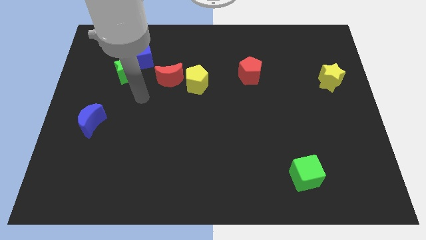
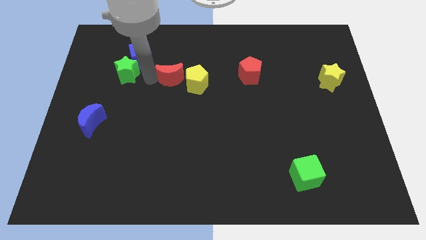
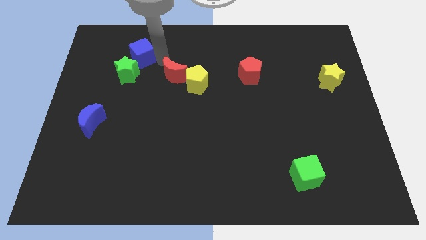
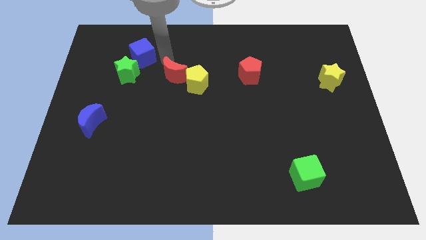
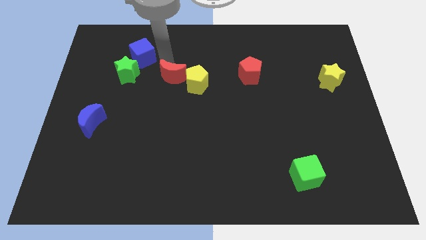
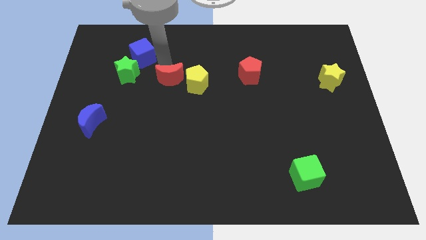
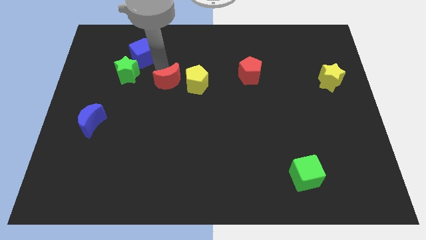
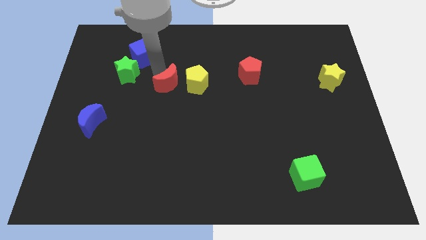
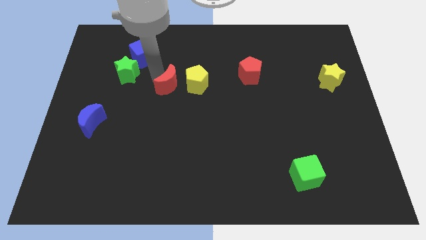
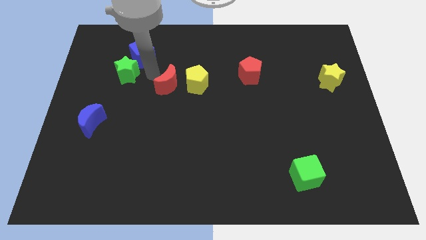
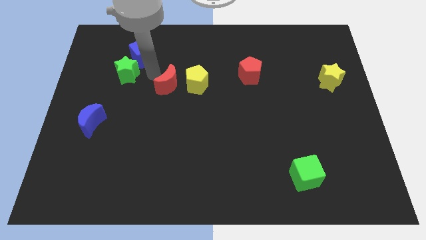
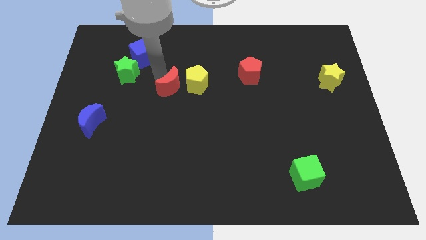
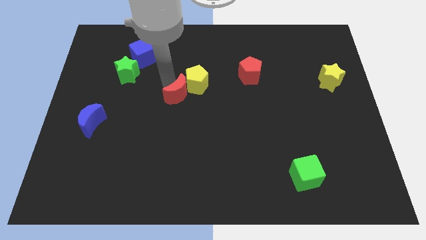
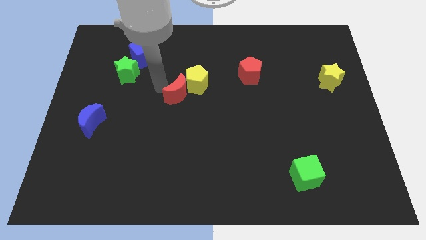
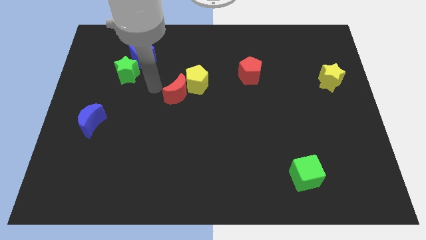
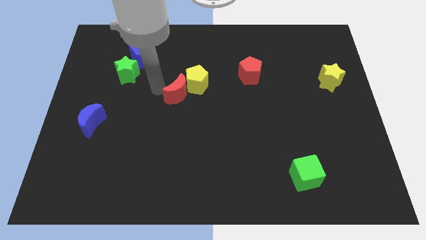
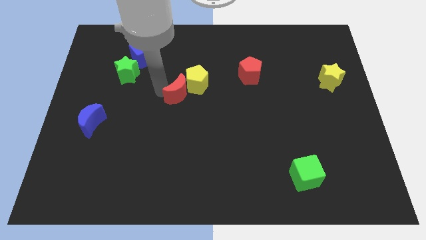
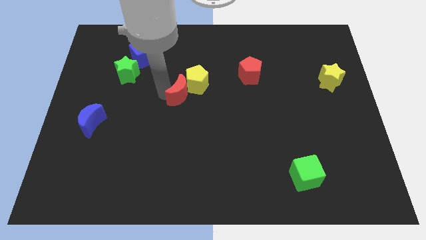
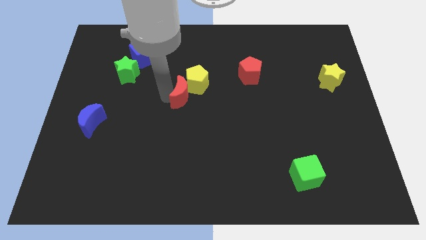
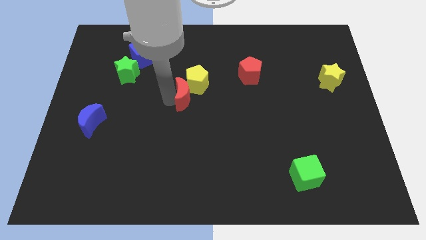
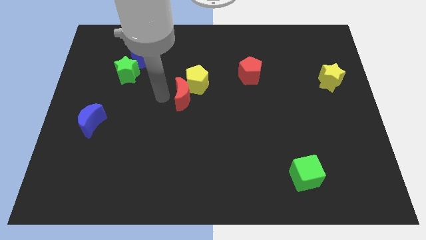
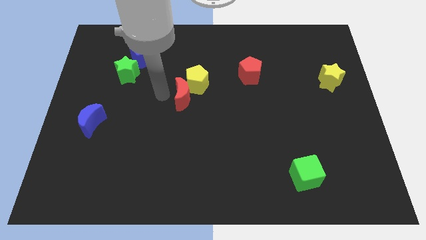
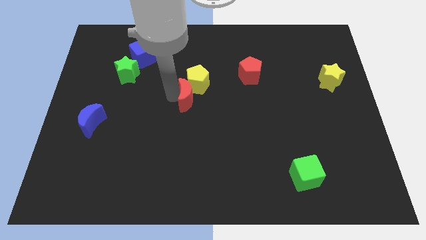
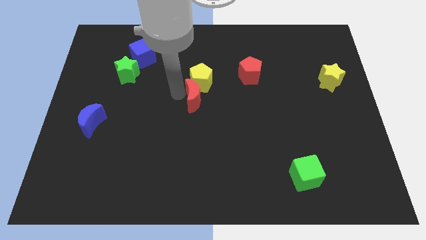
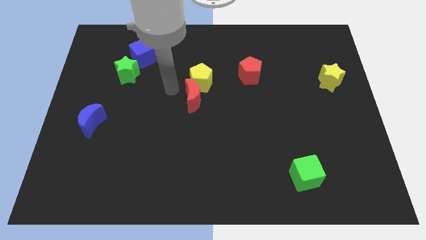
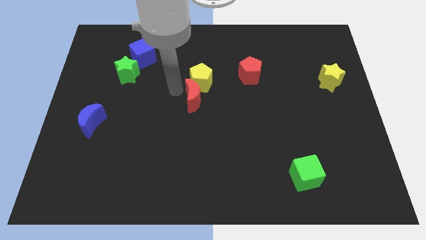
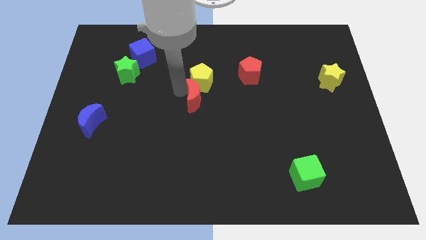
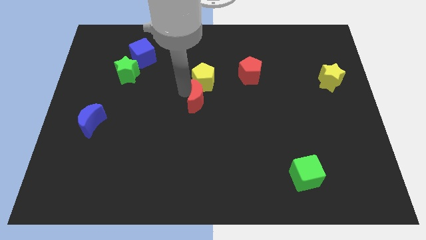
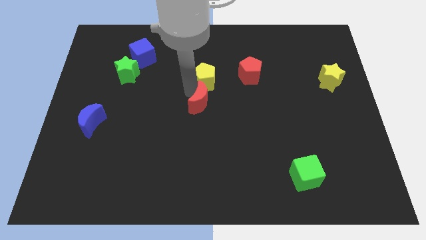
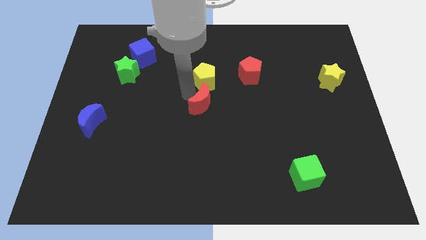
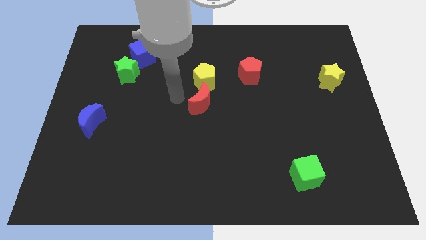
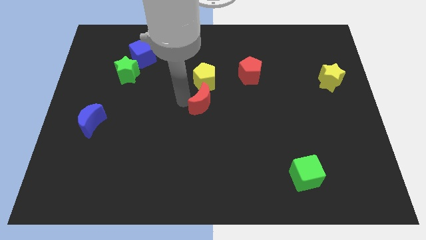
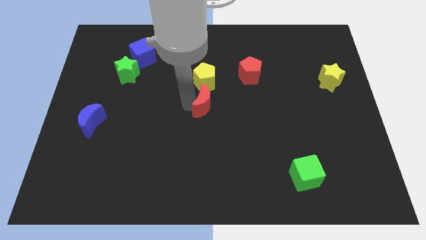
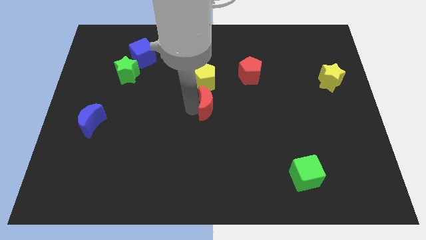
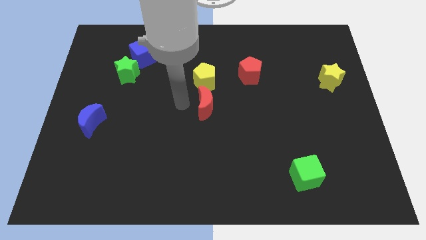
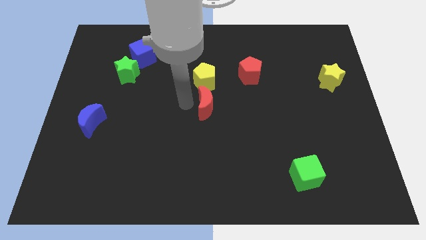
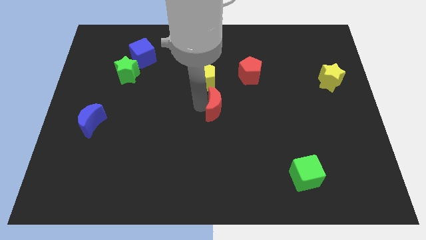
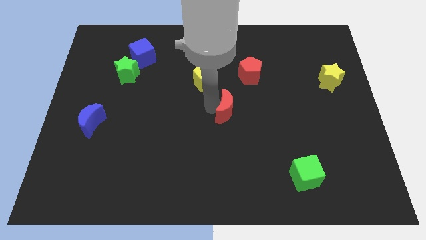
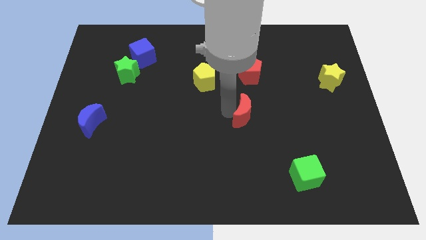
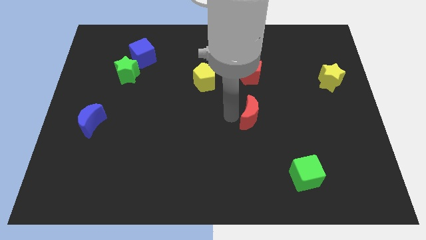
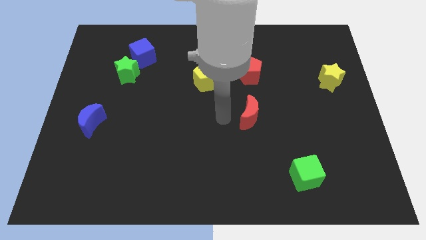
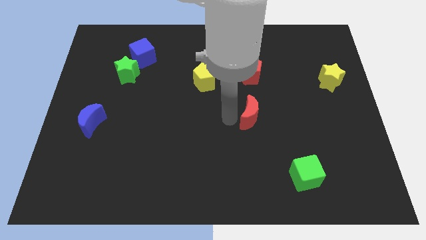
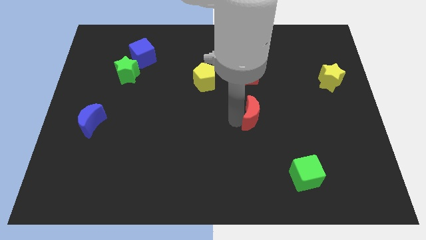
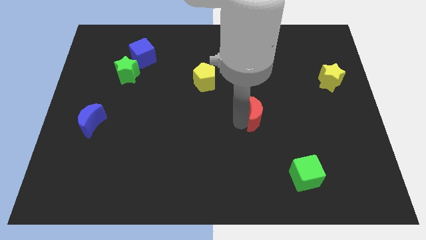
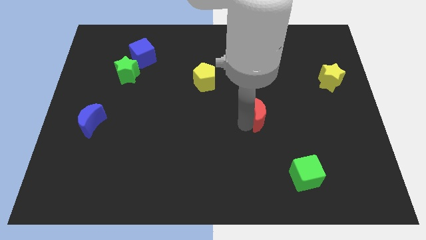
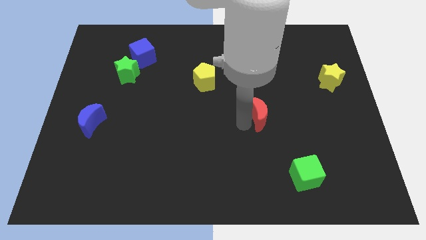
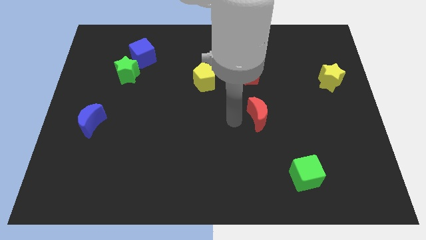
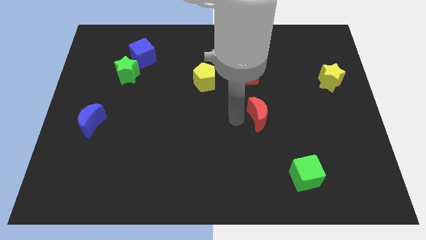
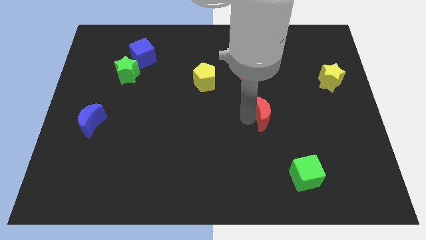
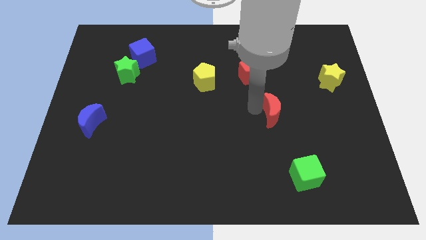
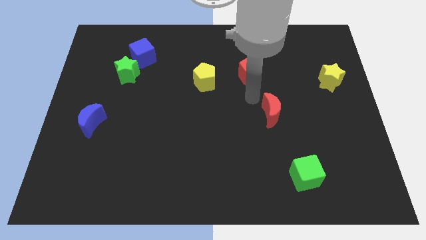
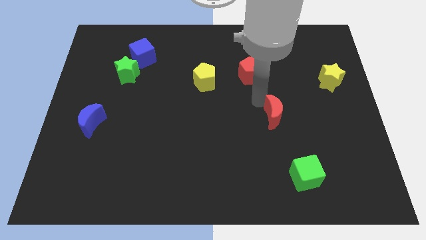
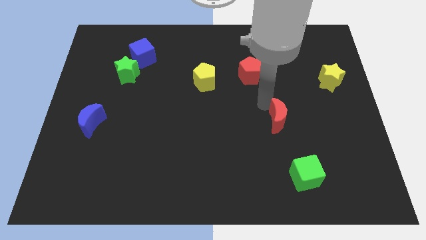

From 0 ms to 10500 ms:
move the red moon above the green cube

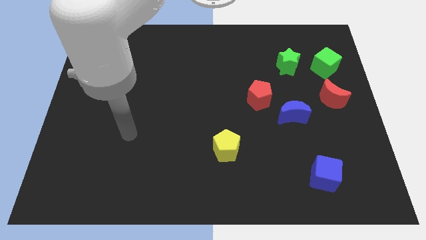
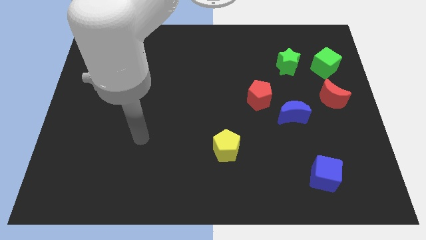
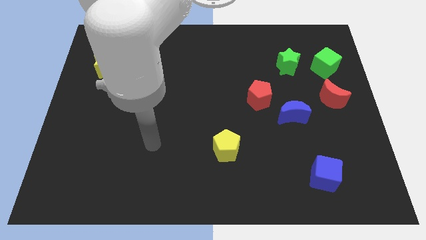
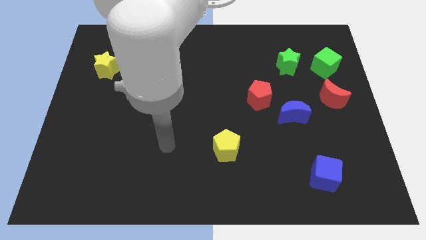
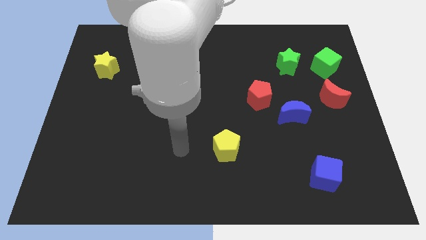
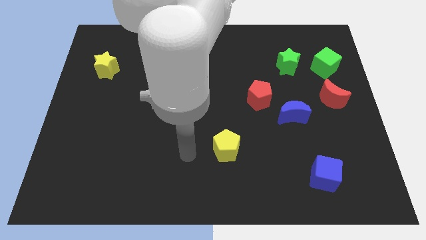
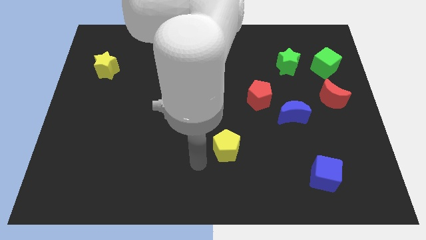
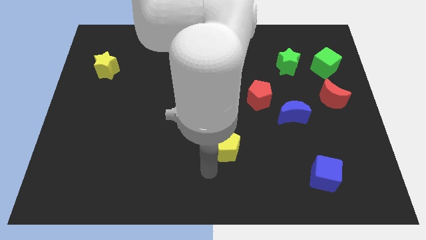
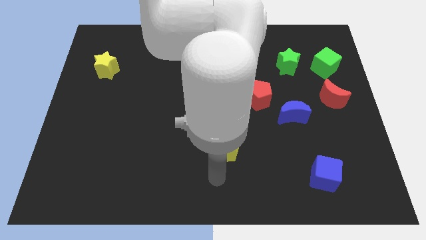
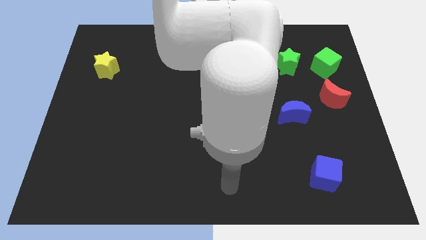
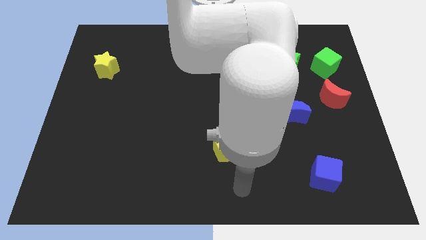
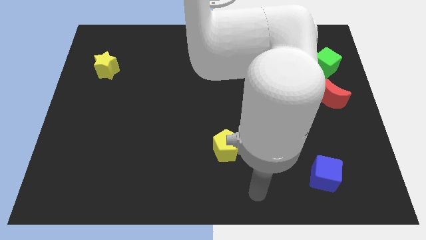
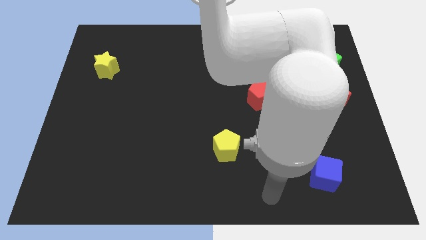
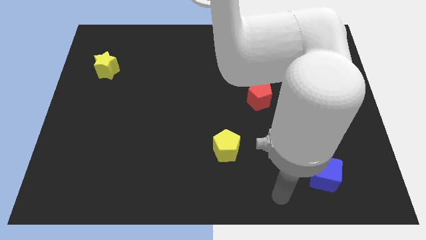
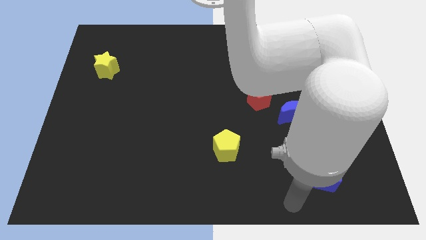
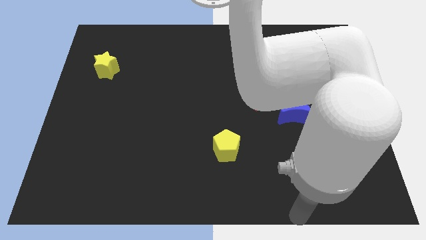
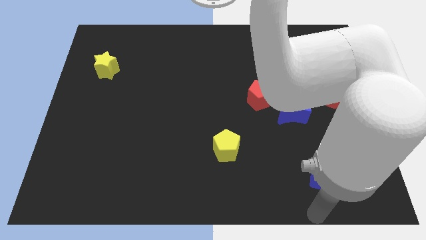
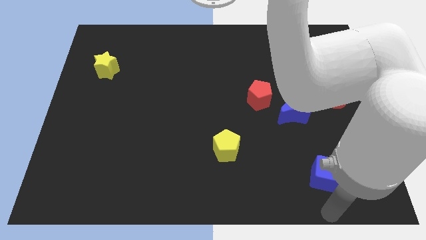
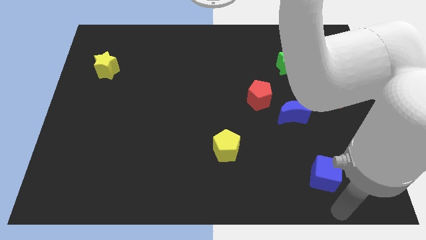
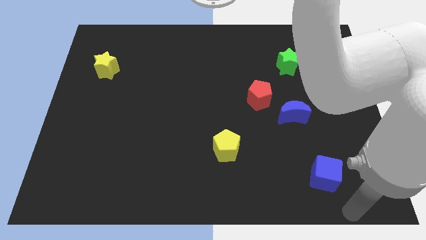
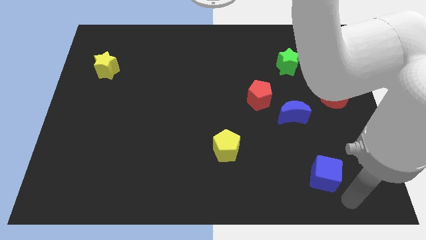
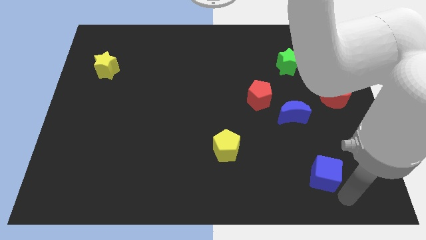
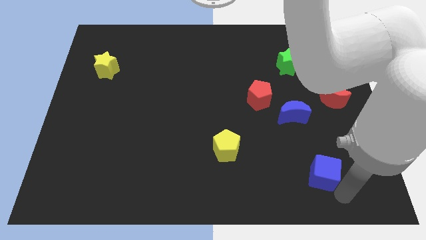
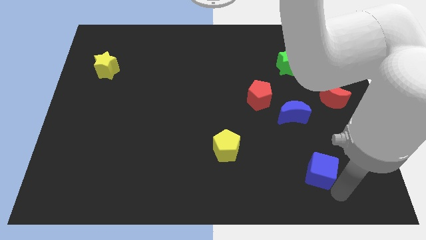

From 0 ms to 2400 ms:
move the blue cube to the bottom of the blue moon
